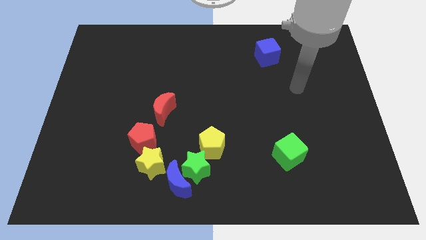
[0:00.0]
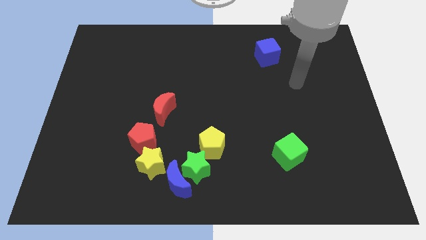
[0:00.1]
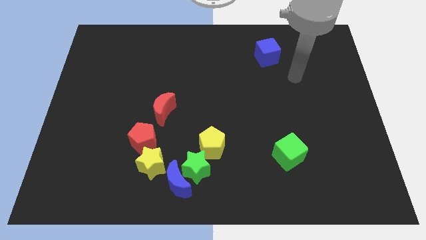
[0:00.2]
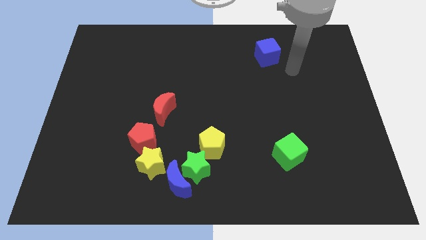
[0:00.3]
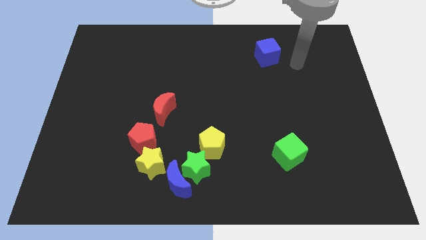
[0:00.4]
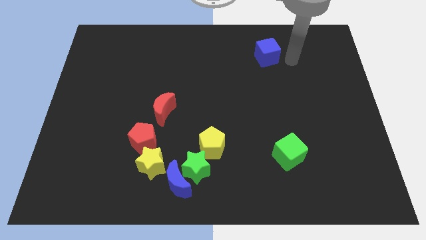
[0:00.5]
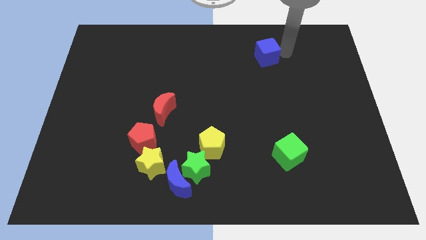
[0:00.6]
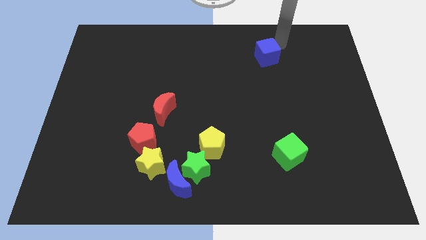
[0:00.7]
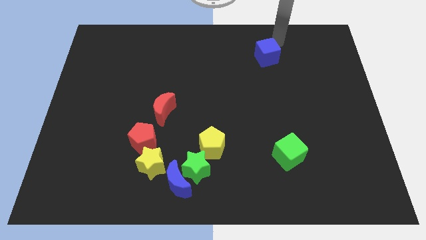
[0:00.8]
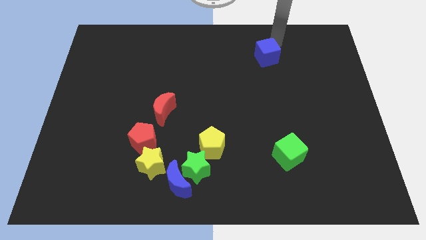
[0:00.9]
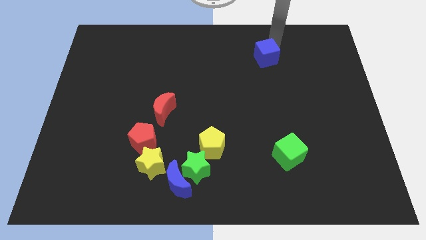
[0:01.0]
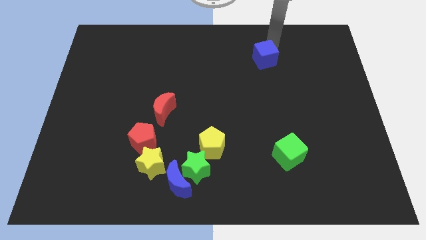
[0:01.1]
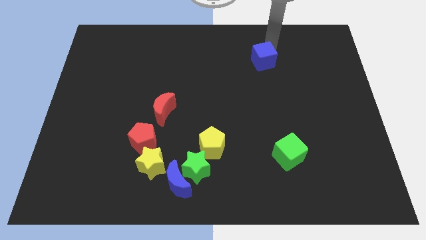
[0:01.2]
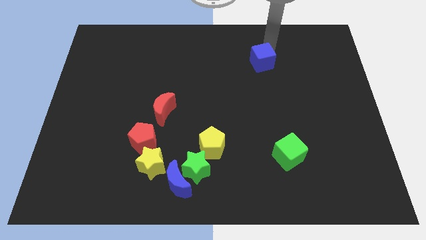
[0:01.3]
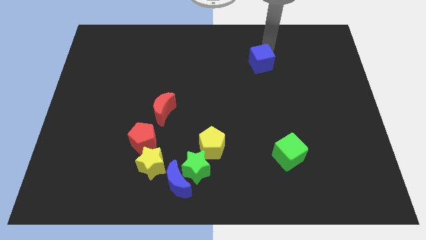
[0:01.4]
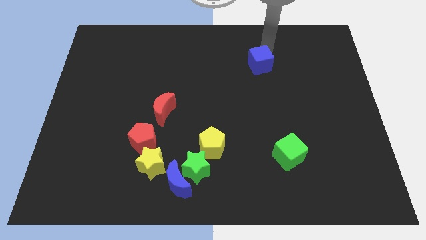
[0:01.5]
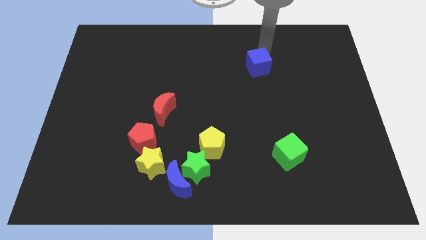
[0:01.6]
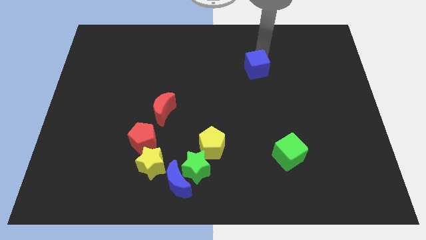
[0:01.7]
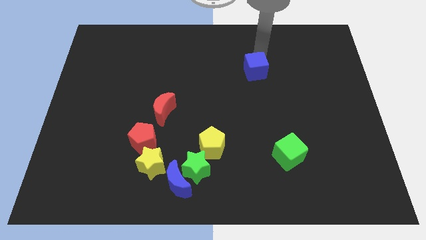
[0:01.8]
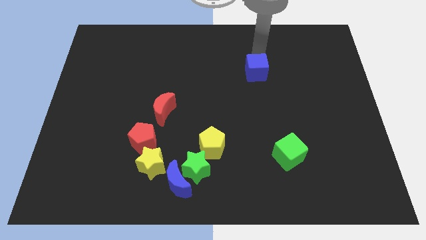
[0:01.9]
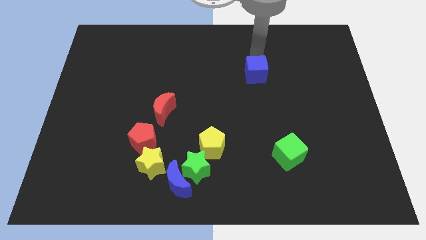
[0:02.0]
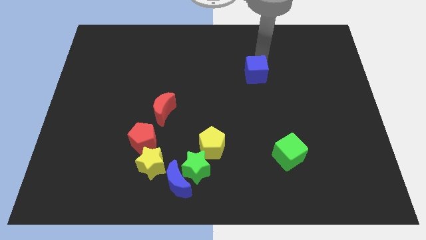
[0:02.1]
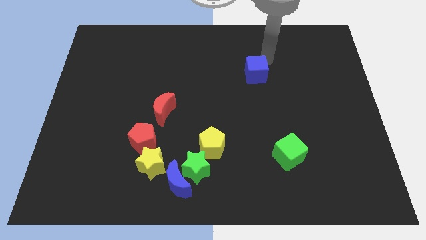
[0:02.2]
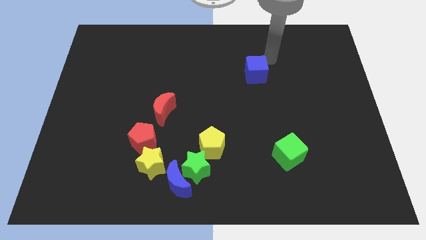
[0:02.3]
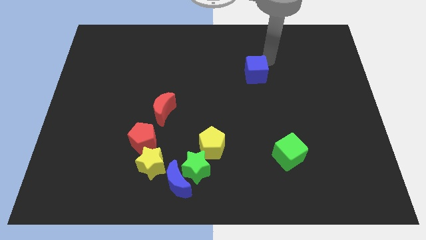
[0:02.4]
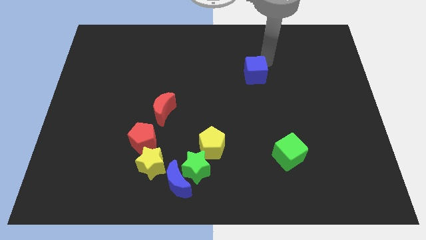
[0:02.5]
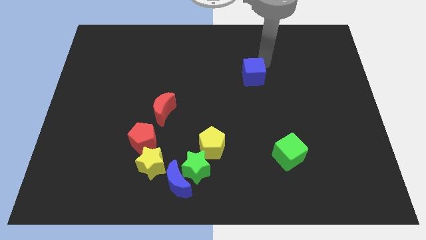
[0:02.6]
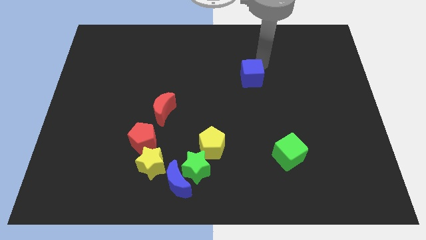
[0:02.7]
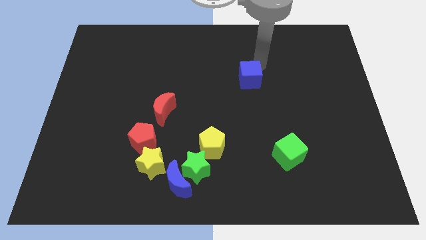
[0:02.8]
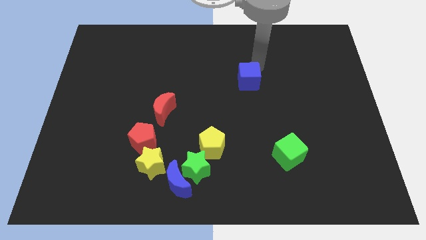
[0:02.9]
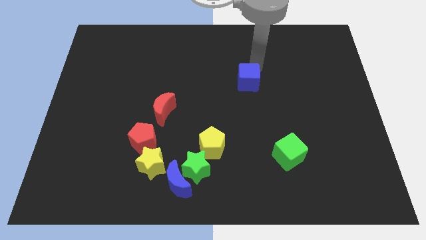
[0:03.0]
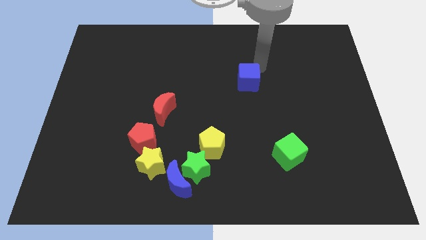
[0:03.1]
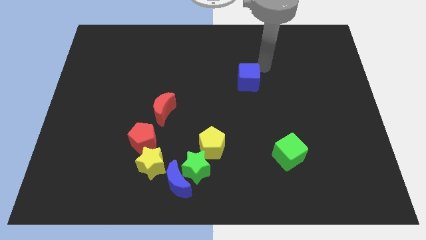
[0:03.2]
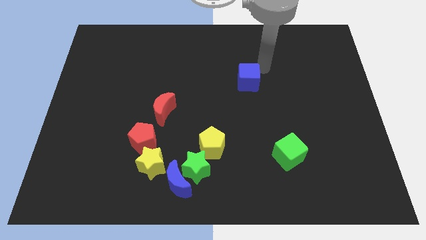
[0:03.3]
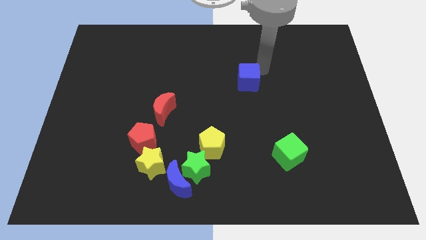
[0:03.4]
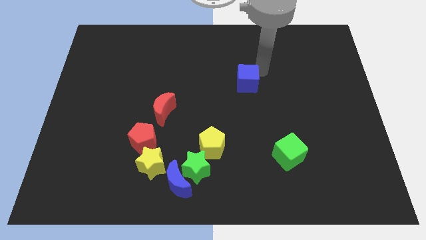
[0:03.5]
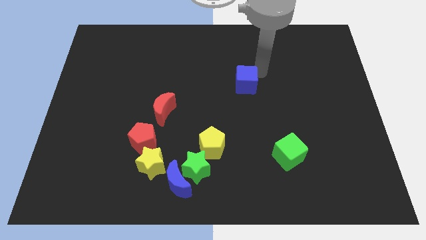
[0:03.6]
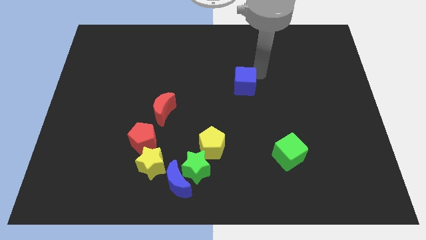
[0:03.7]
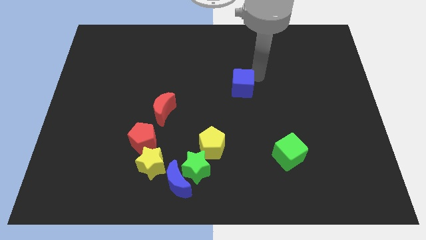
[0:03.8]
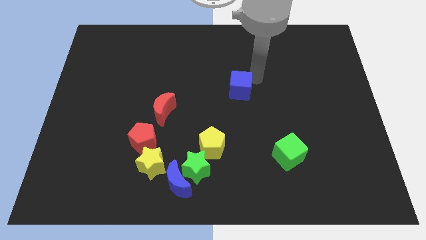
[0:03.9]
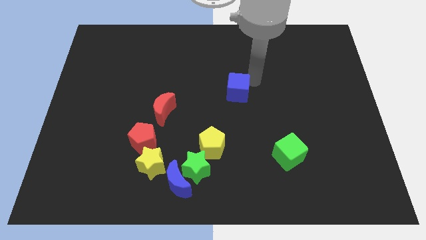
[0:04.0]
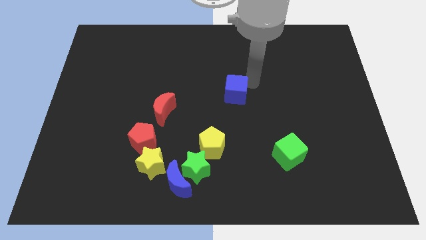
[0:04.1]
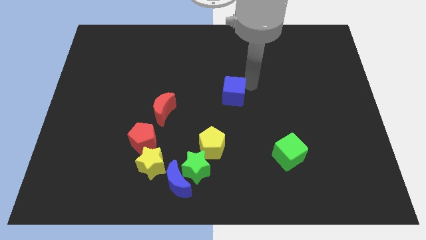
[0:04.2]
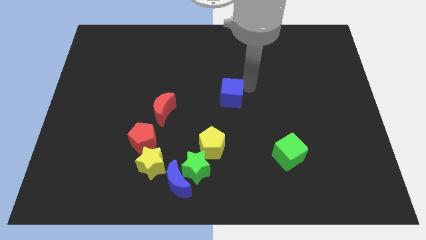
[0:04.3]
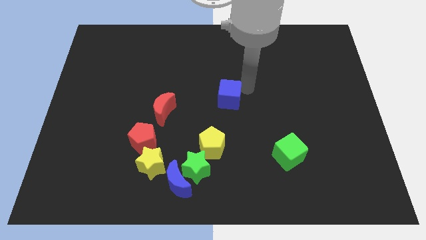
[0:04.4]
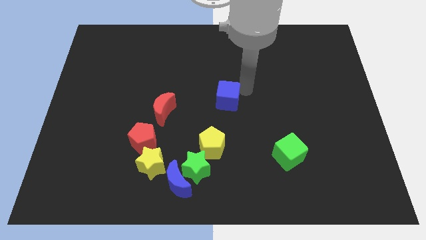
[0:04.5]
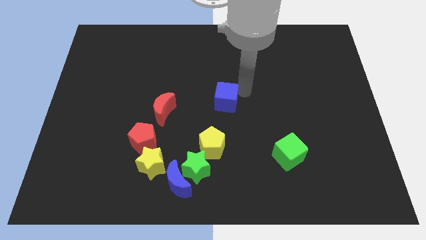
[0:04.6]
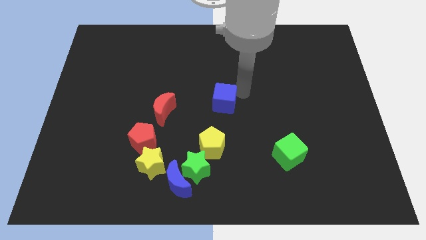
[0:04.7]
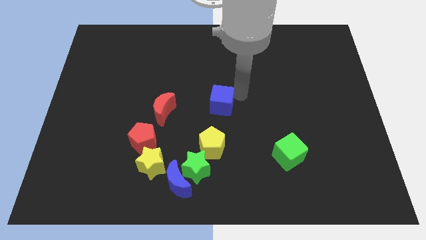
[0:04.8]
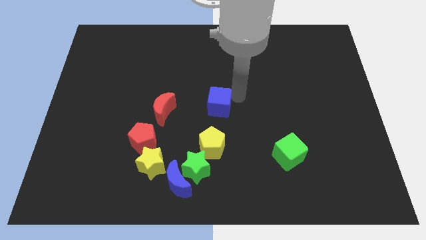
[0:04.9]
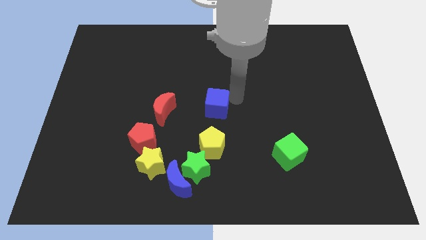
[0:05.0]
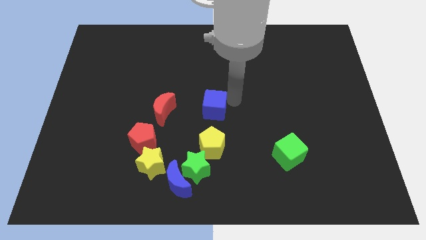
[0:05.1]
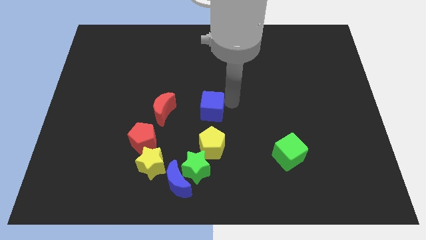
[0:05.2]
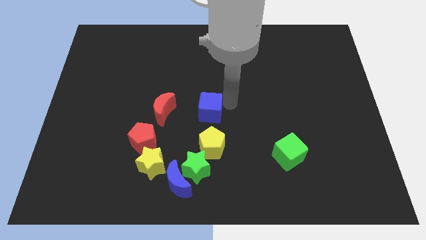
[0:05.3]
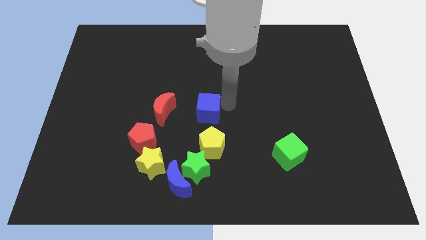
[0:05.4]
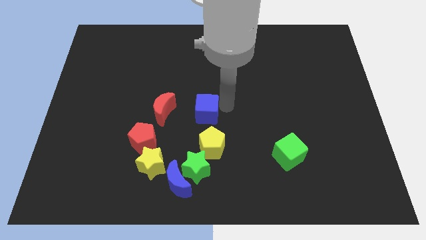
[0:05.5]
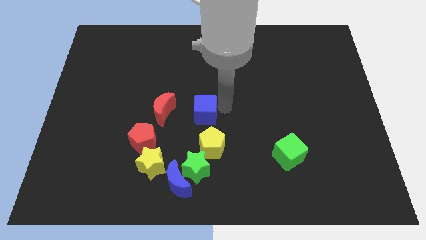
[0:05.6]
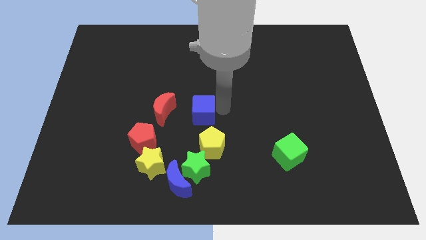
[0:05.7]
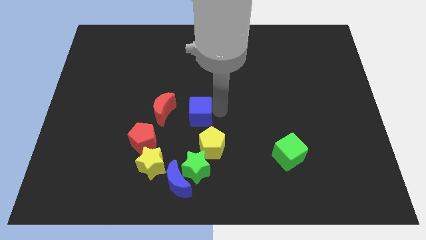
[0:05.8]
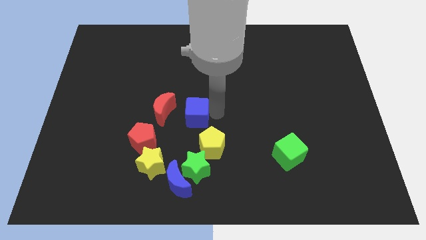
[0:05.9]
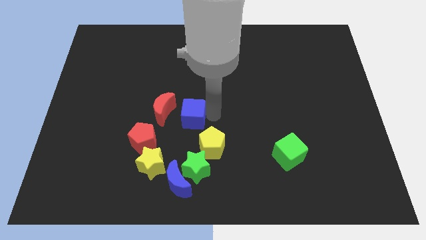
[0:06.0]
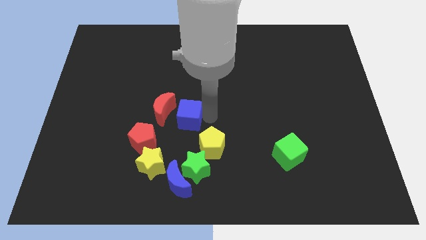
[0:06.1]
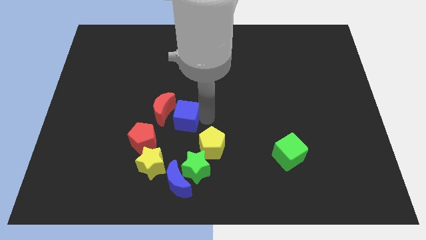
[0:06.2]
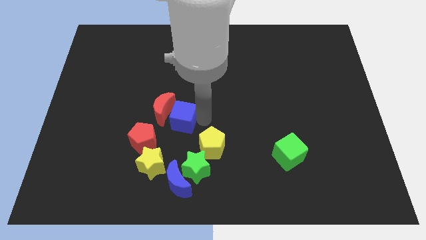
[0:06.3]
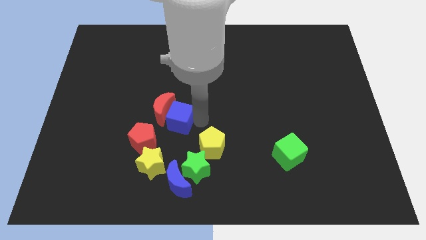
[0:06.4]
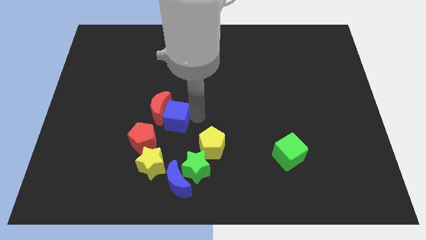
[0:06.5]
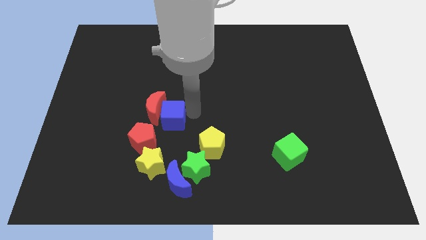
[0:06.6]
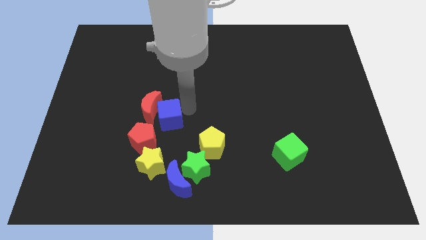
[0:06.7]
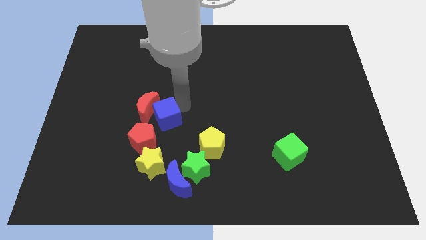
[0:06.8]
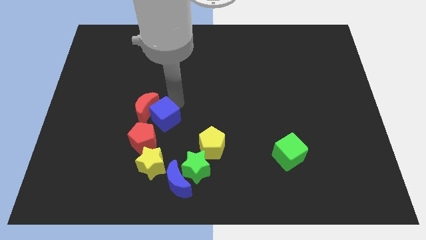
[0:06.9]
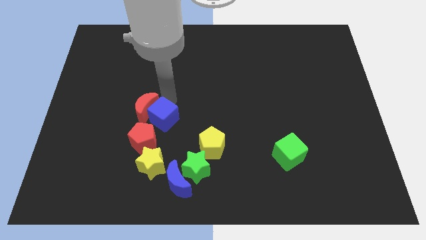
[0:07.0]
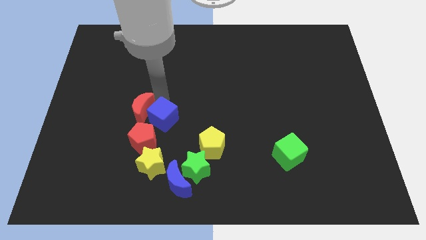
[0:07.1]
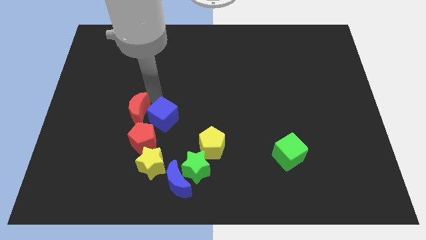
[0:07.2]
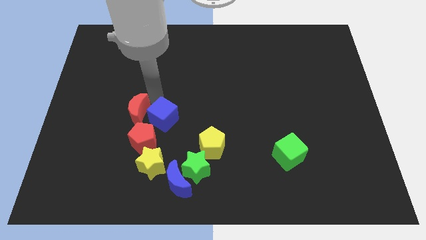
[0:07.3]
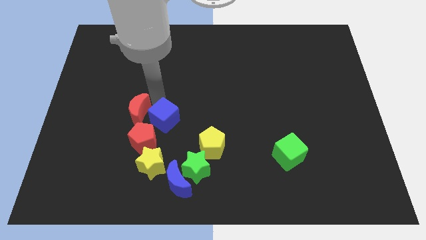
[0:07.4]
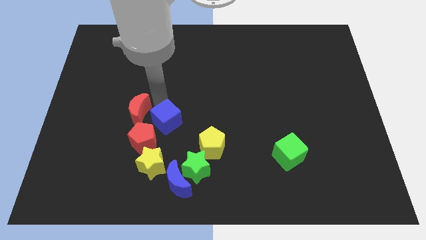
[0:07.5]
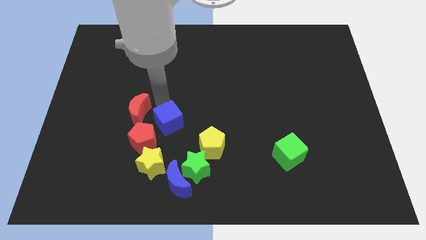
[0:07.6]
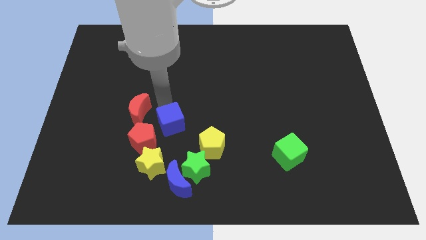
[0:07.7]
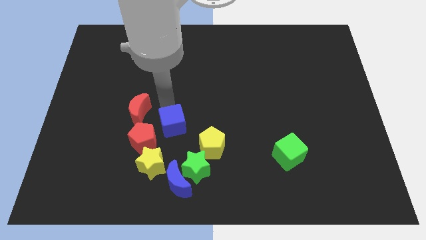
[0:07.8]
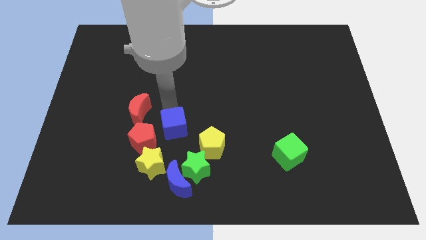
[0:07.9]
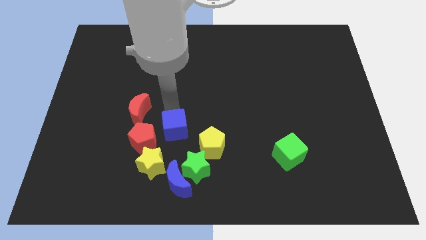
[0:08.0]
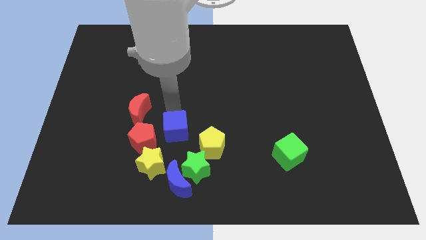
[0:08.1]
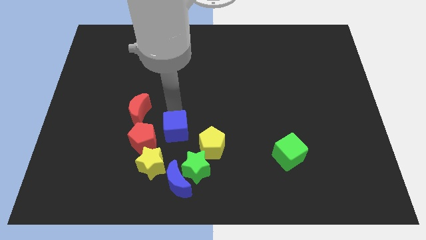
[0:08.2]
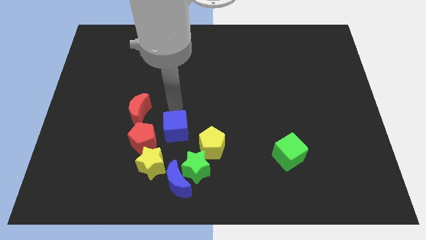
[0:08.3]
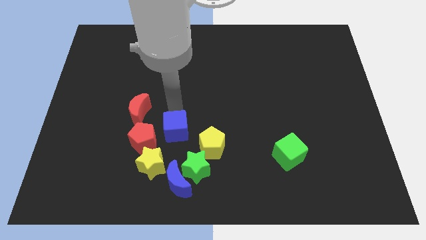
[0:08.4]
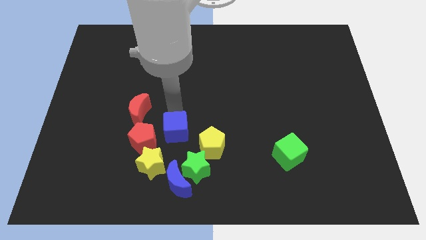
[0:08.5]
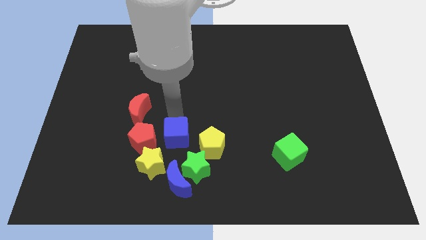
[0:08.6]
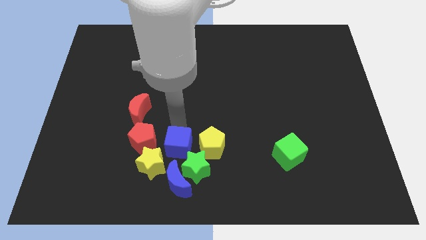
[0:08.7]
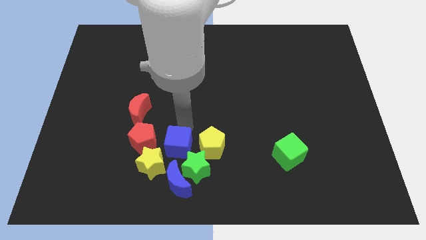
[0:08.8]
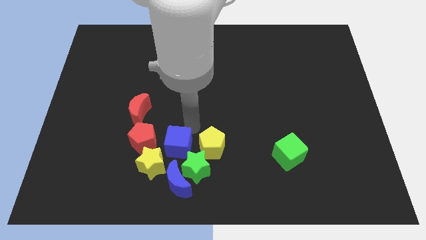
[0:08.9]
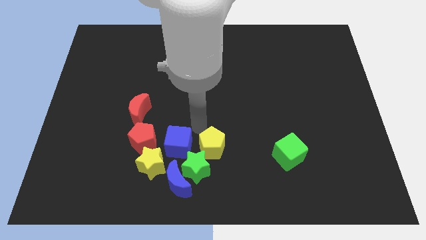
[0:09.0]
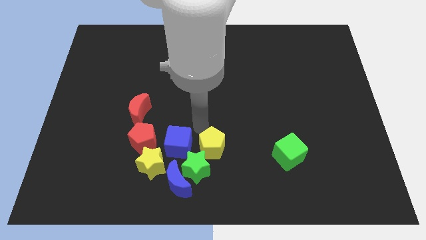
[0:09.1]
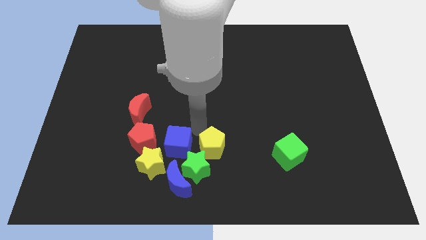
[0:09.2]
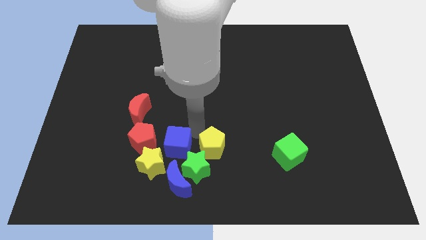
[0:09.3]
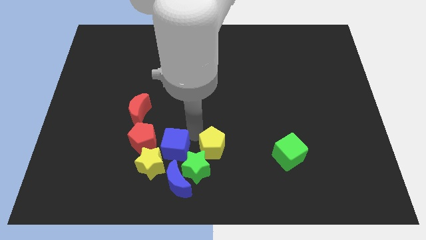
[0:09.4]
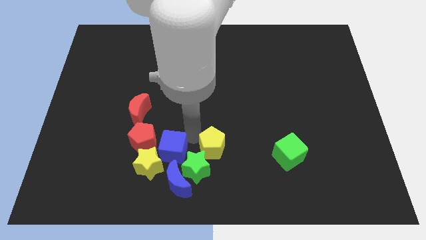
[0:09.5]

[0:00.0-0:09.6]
push the blue cube towards the yellow star
